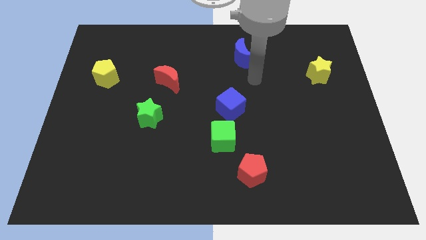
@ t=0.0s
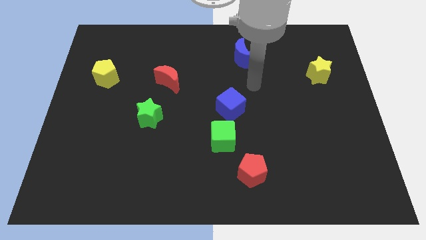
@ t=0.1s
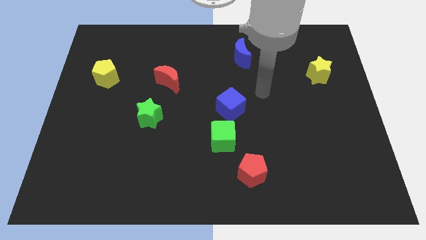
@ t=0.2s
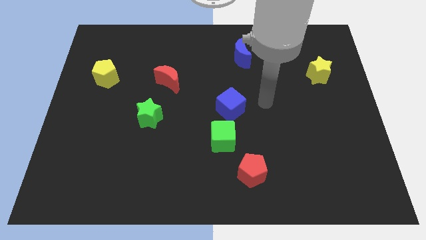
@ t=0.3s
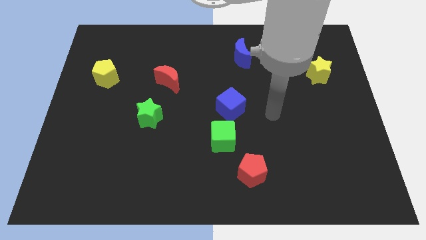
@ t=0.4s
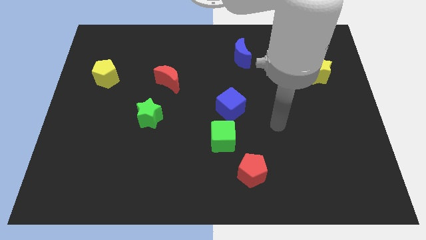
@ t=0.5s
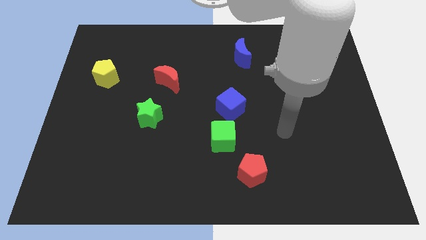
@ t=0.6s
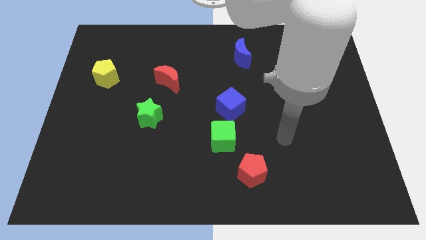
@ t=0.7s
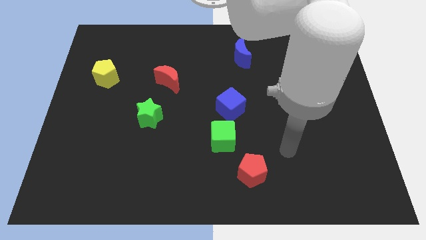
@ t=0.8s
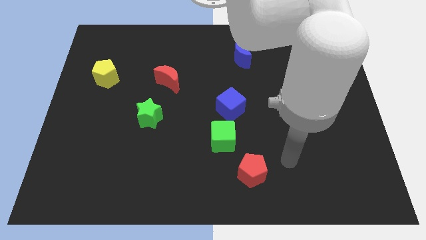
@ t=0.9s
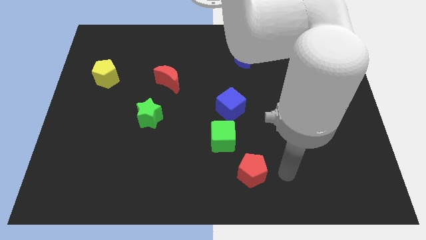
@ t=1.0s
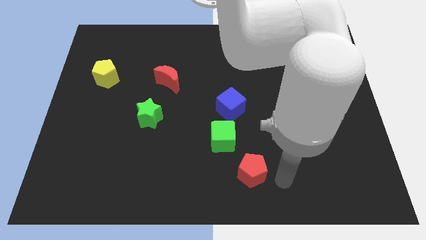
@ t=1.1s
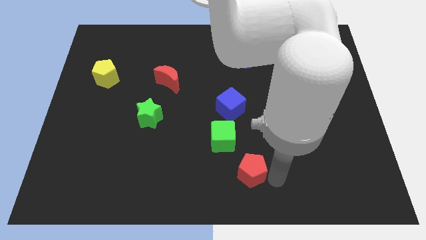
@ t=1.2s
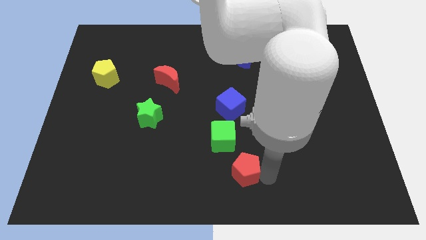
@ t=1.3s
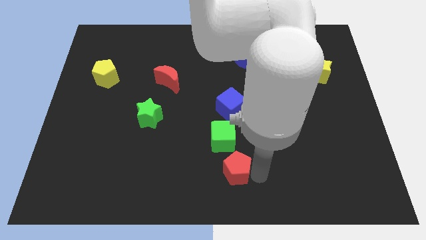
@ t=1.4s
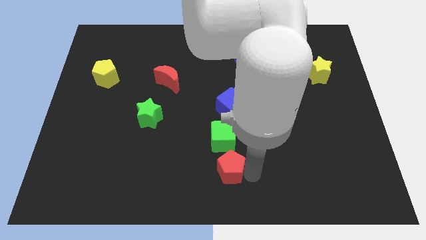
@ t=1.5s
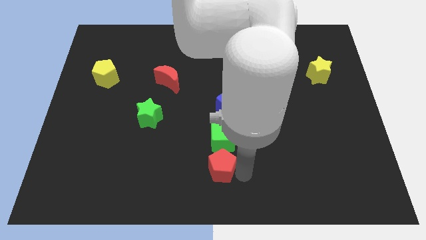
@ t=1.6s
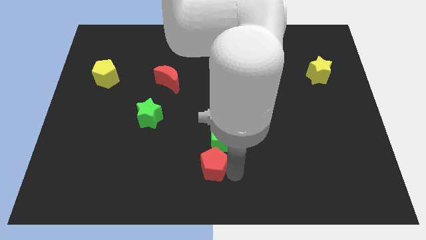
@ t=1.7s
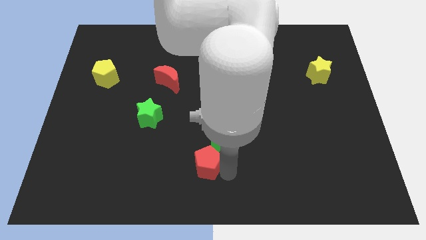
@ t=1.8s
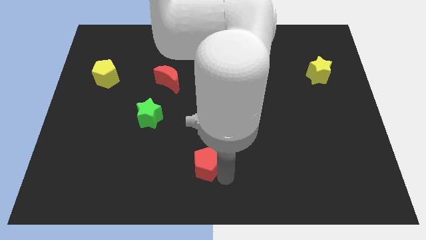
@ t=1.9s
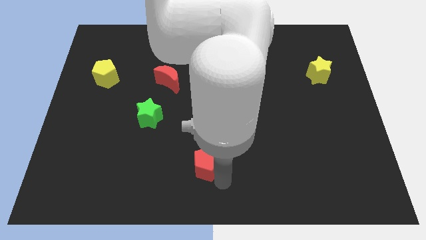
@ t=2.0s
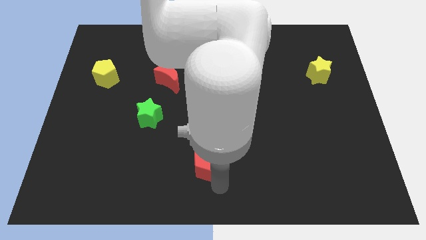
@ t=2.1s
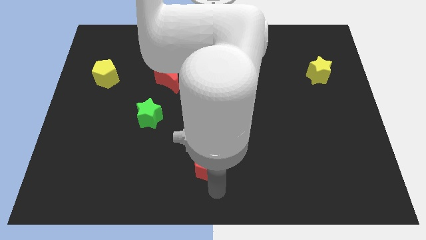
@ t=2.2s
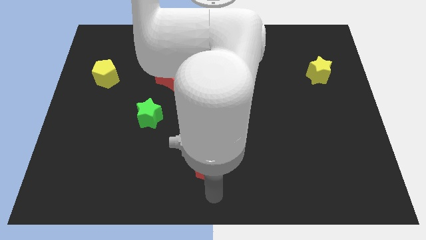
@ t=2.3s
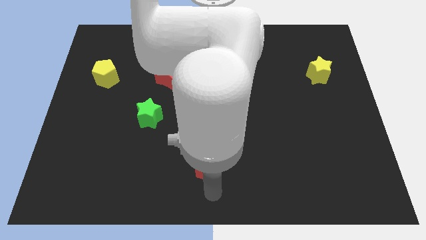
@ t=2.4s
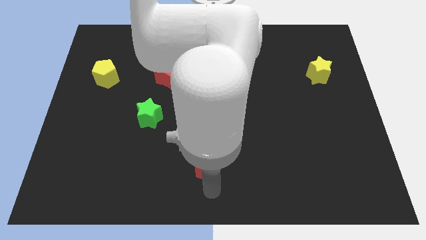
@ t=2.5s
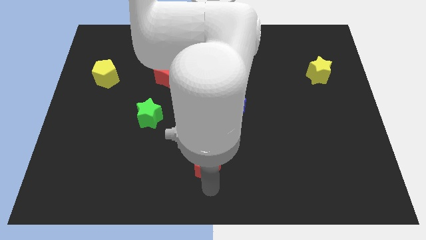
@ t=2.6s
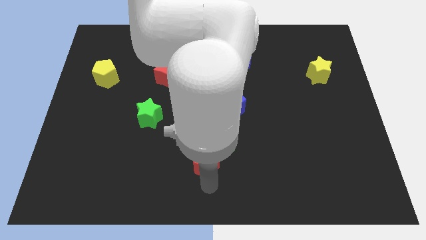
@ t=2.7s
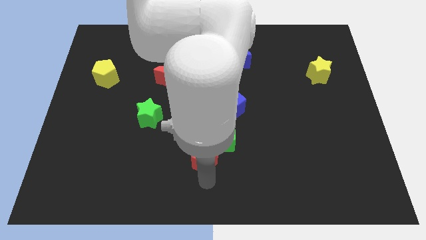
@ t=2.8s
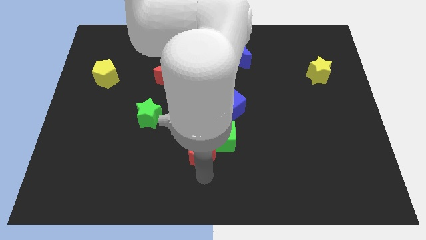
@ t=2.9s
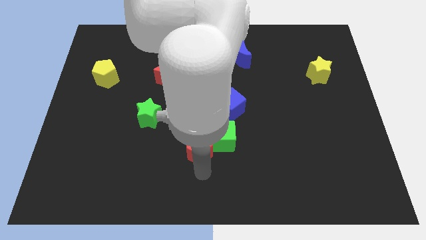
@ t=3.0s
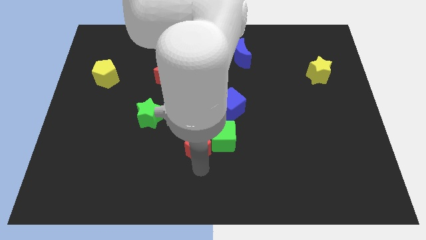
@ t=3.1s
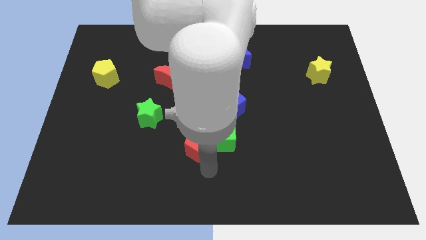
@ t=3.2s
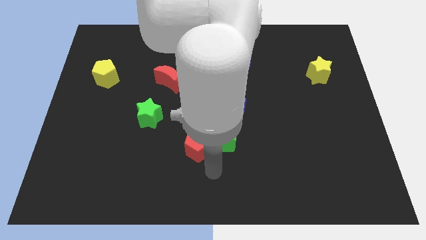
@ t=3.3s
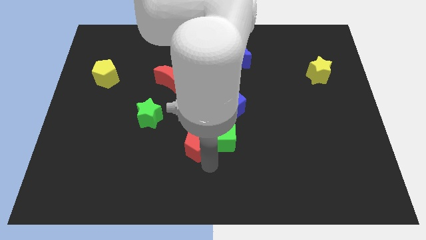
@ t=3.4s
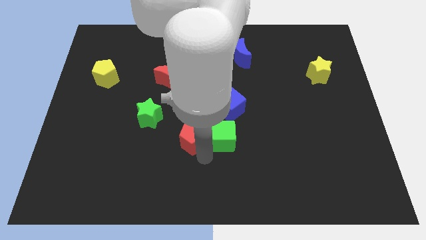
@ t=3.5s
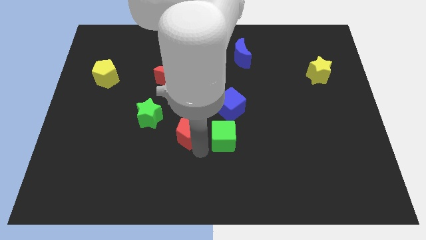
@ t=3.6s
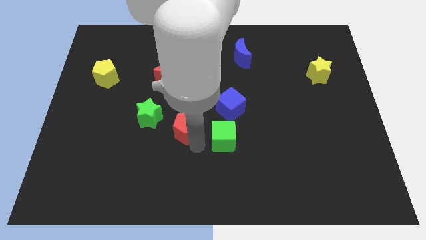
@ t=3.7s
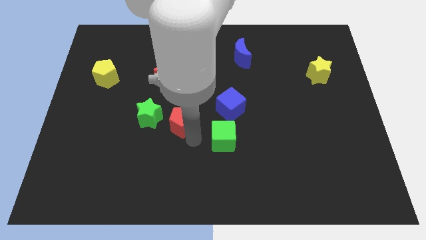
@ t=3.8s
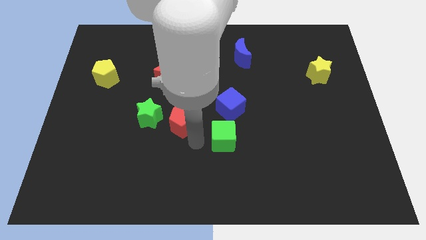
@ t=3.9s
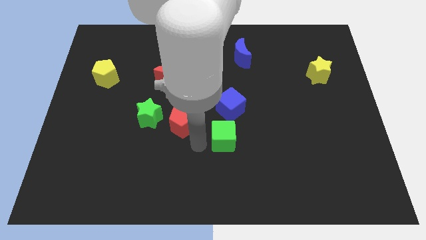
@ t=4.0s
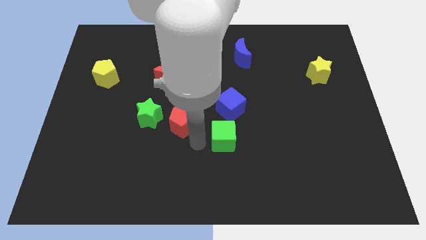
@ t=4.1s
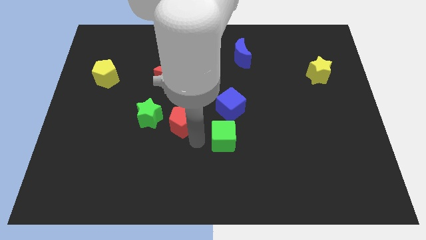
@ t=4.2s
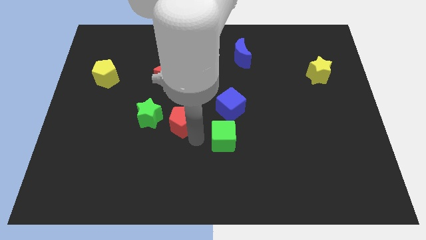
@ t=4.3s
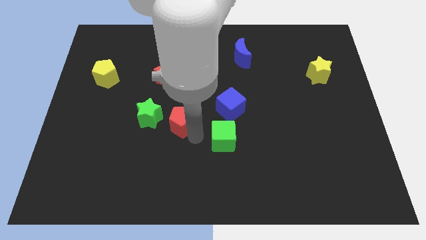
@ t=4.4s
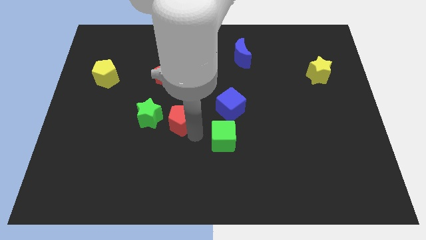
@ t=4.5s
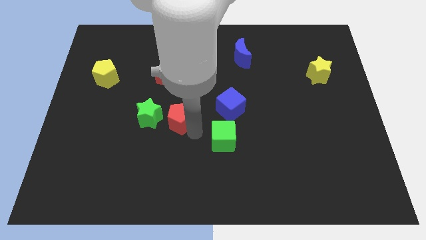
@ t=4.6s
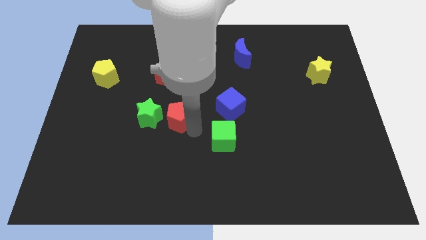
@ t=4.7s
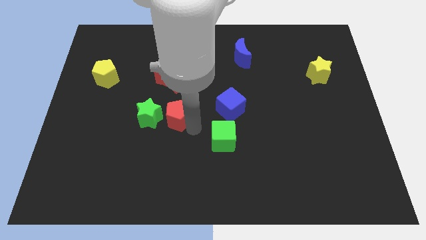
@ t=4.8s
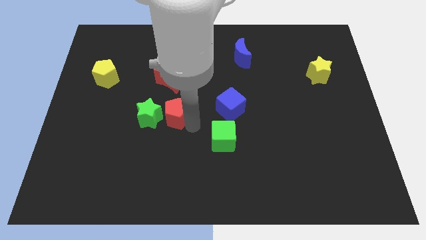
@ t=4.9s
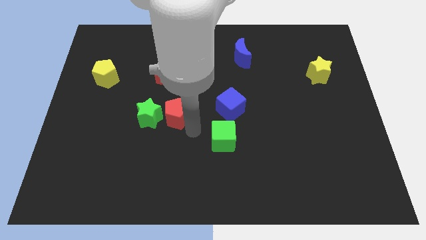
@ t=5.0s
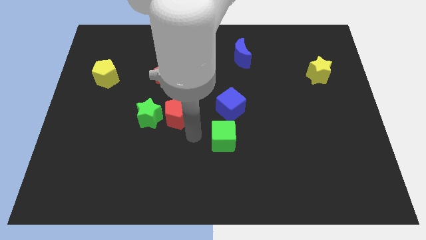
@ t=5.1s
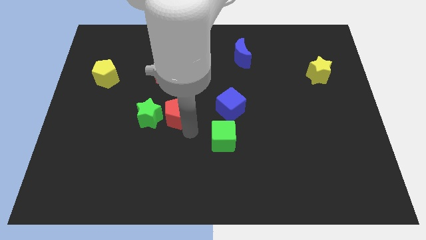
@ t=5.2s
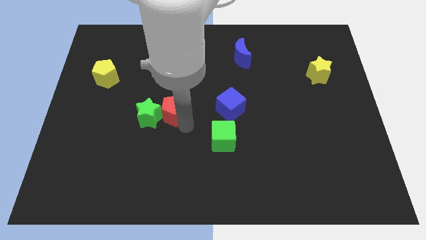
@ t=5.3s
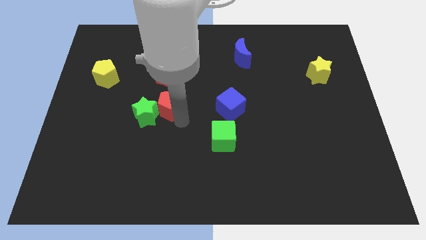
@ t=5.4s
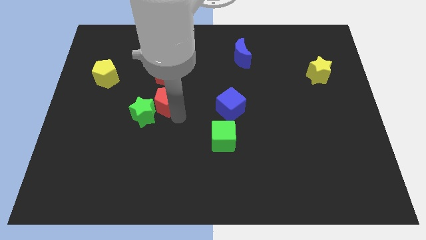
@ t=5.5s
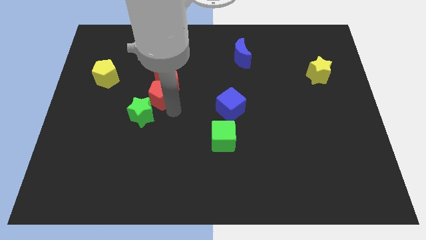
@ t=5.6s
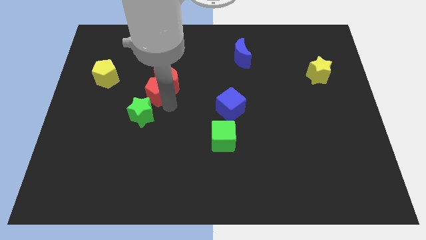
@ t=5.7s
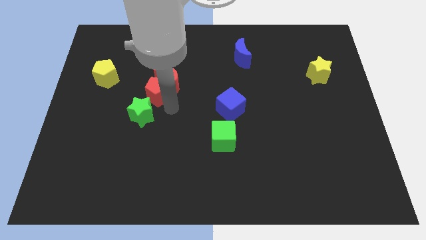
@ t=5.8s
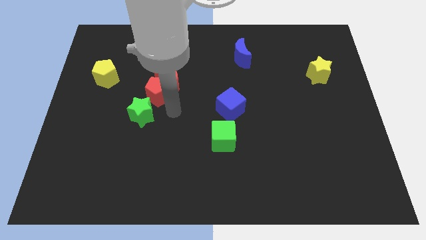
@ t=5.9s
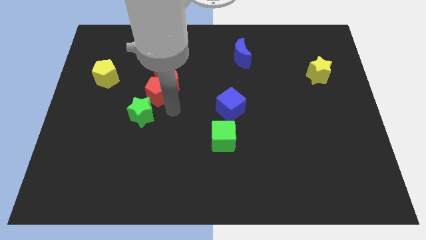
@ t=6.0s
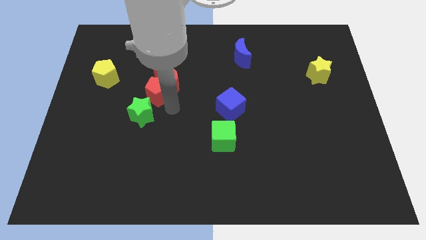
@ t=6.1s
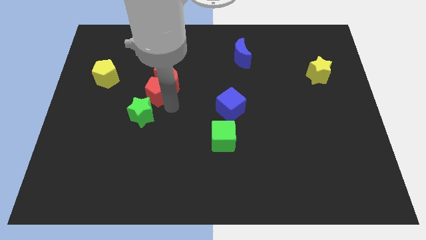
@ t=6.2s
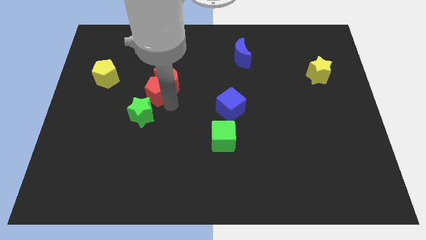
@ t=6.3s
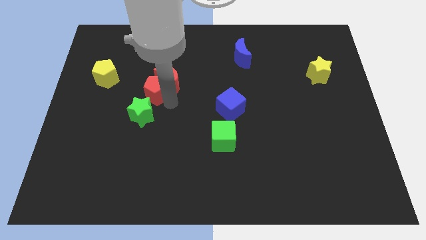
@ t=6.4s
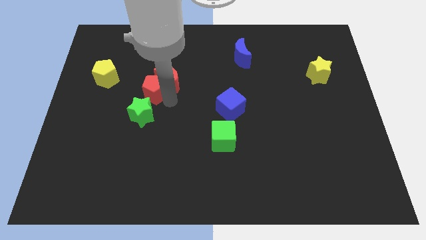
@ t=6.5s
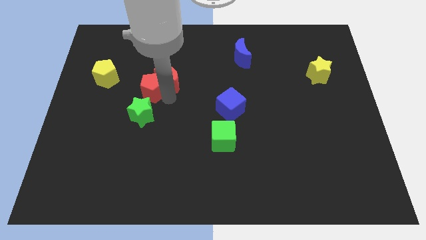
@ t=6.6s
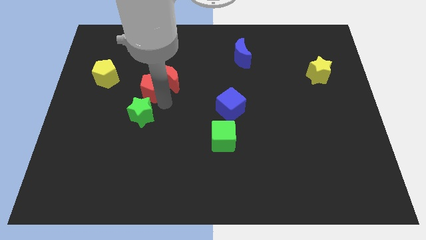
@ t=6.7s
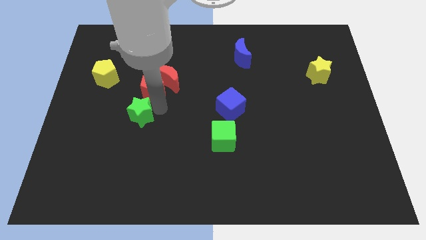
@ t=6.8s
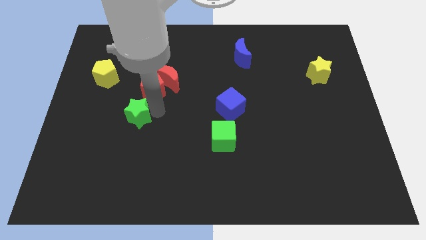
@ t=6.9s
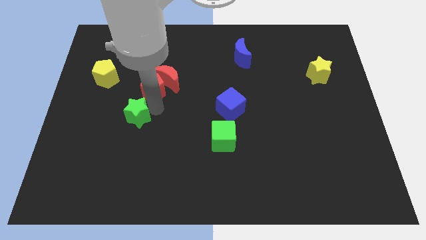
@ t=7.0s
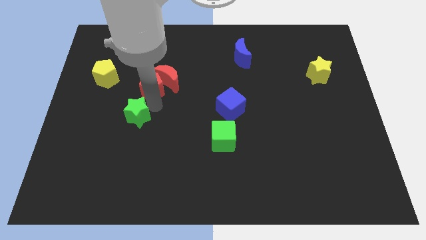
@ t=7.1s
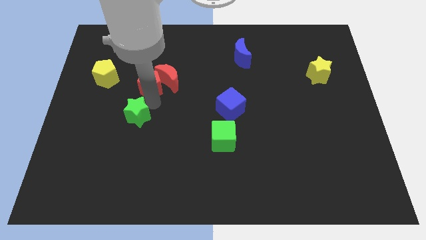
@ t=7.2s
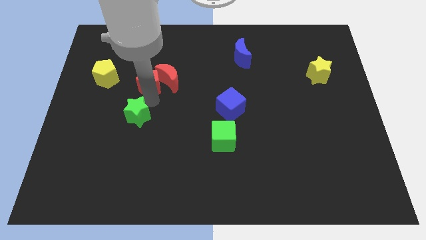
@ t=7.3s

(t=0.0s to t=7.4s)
push the red pentagon to the top left of the red moon

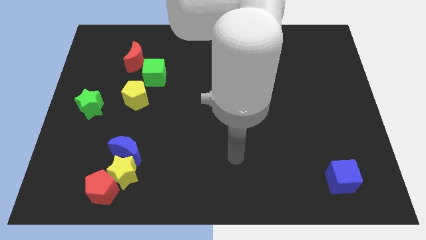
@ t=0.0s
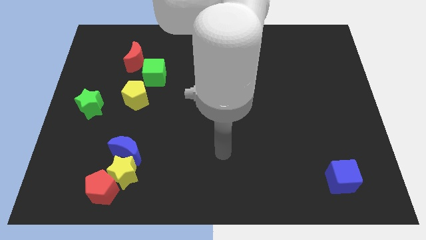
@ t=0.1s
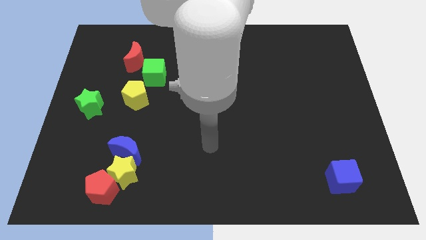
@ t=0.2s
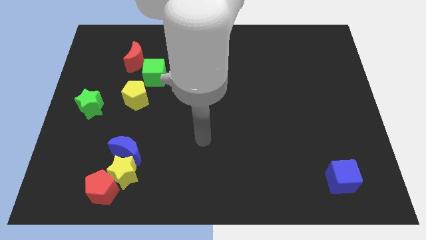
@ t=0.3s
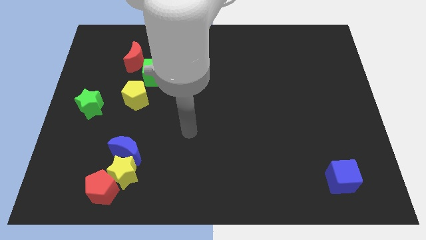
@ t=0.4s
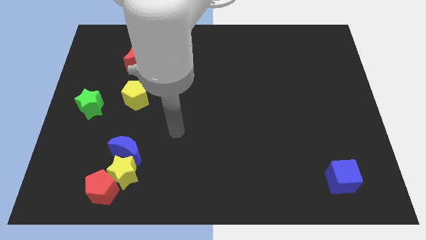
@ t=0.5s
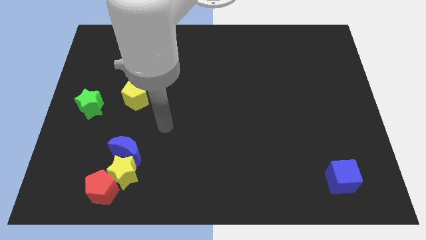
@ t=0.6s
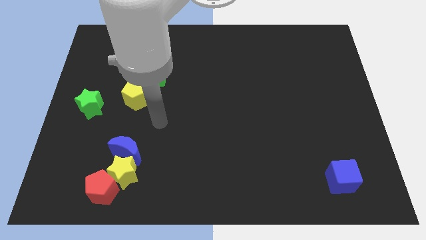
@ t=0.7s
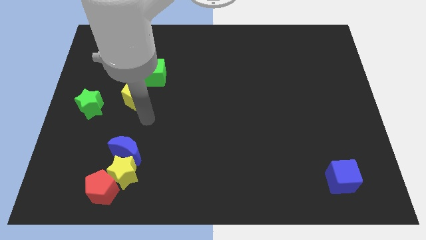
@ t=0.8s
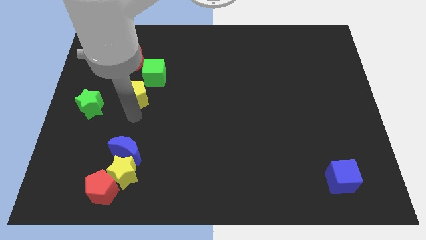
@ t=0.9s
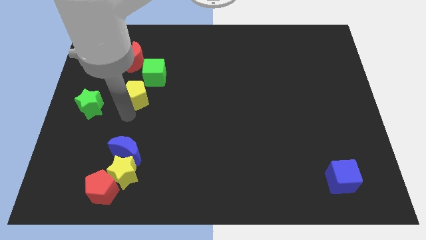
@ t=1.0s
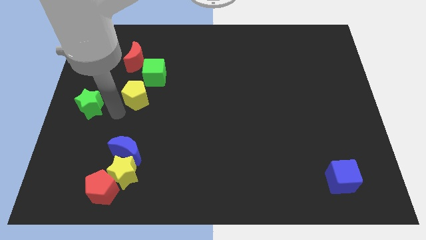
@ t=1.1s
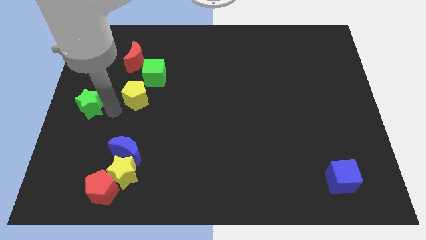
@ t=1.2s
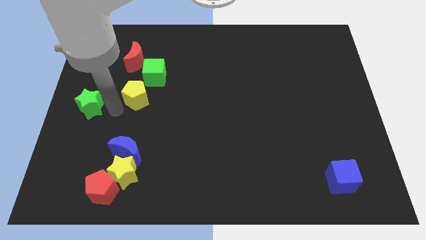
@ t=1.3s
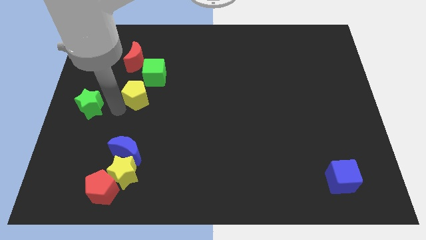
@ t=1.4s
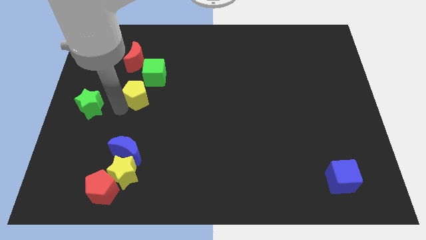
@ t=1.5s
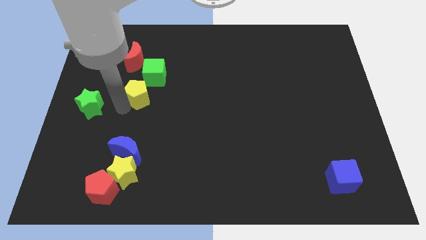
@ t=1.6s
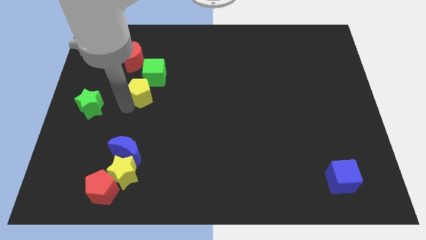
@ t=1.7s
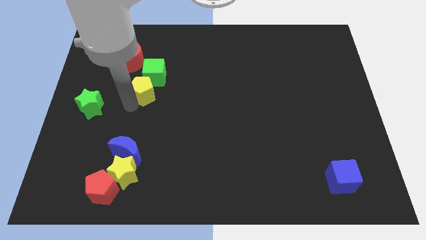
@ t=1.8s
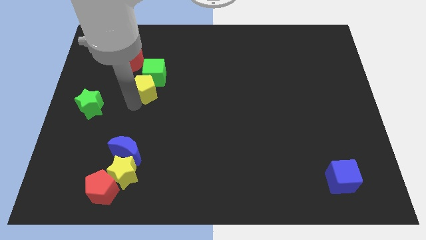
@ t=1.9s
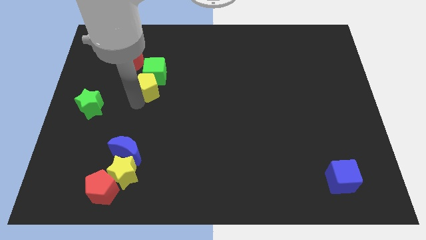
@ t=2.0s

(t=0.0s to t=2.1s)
push the yellow pentagon to the bottom right of the green cube
